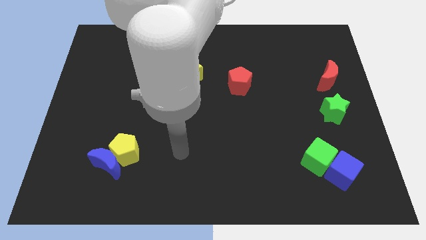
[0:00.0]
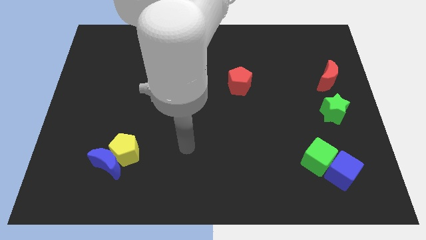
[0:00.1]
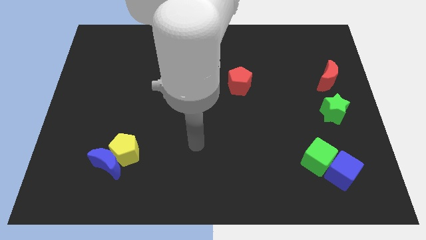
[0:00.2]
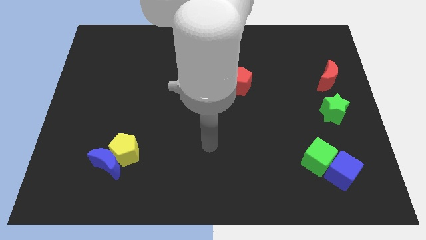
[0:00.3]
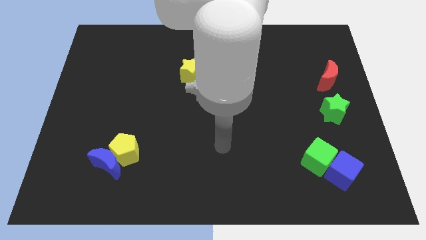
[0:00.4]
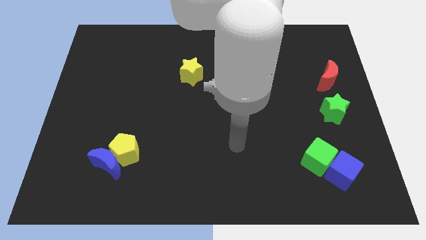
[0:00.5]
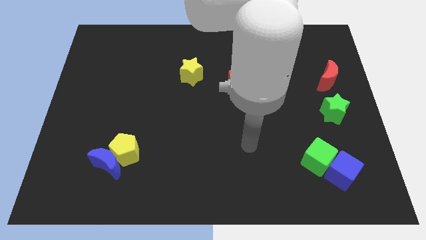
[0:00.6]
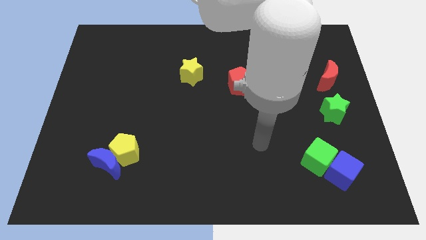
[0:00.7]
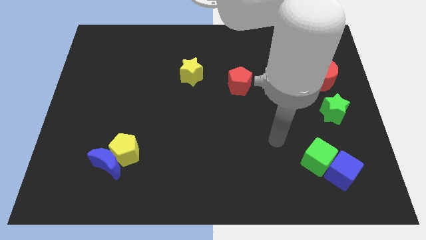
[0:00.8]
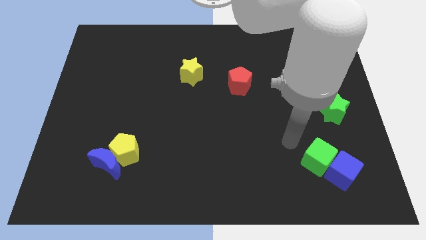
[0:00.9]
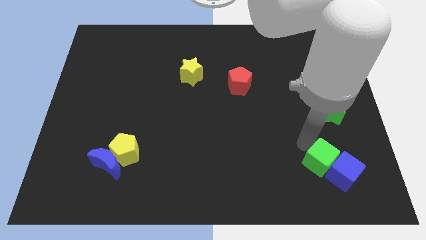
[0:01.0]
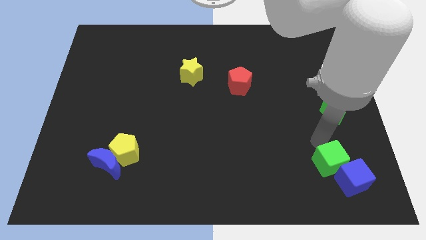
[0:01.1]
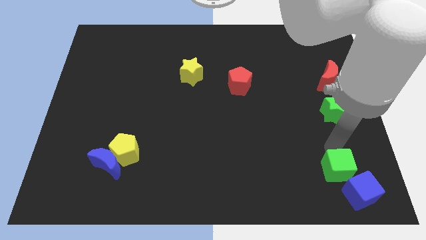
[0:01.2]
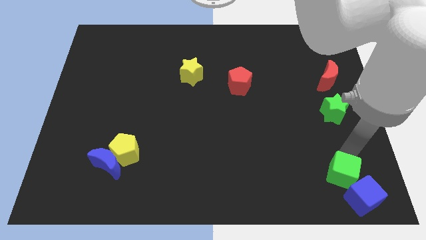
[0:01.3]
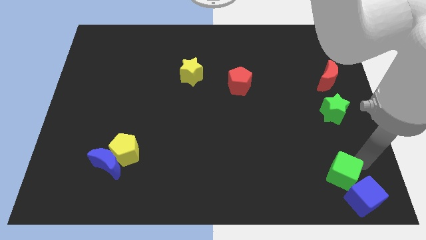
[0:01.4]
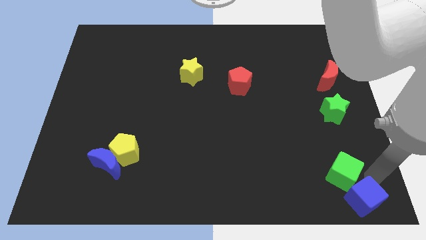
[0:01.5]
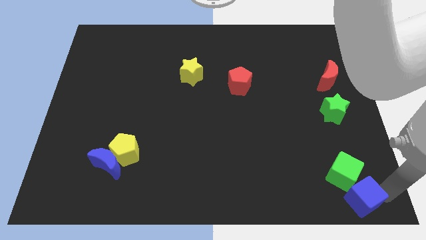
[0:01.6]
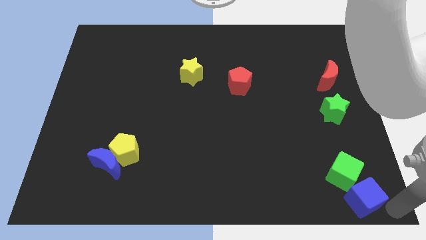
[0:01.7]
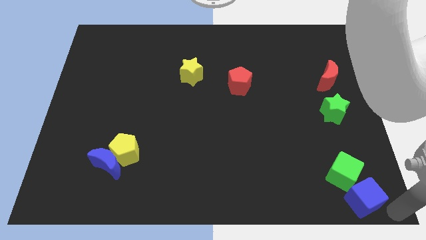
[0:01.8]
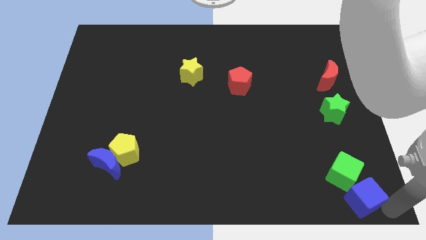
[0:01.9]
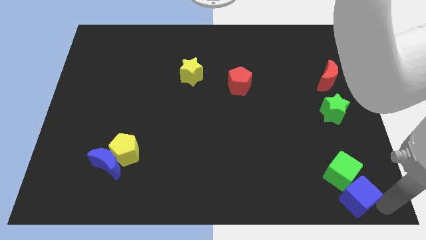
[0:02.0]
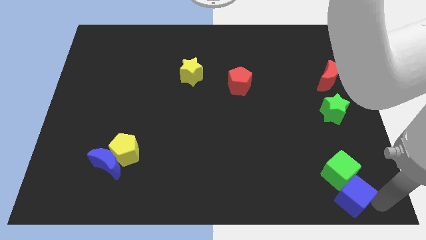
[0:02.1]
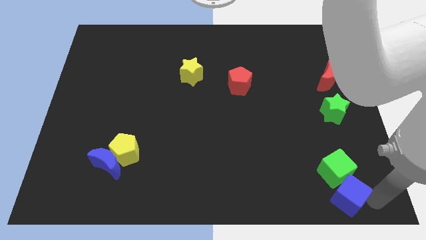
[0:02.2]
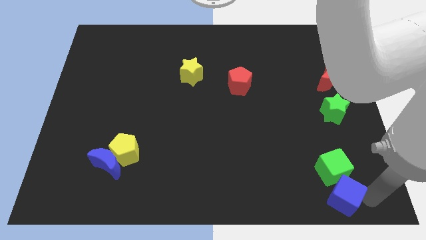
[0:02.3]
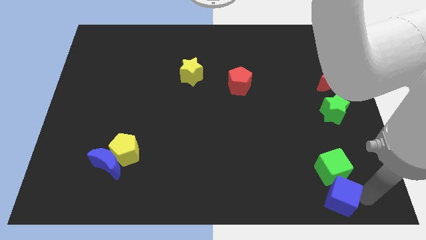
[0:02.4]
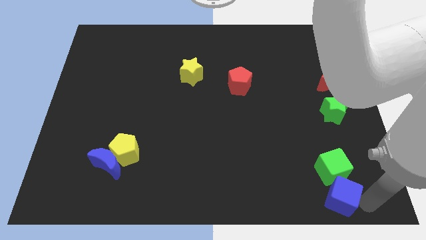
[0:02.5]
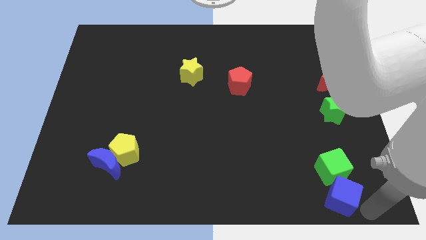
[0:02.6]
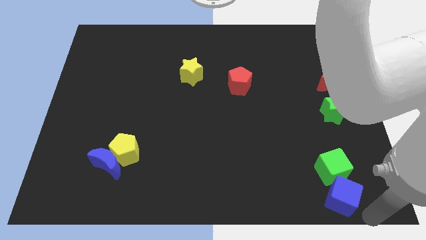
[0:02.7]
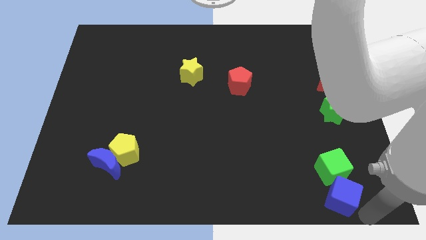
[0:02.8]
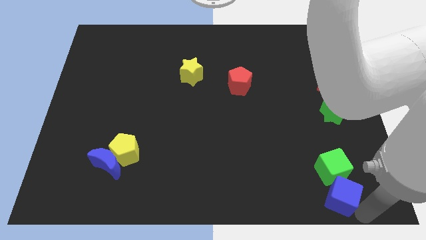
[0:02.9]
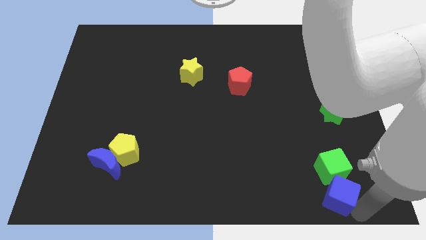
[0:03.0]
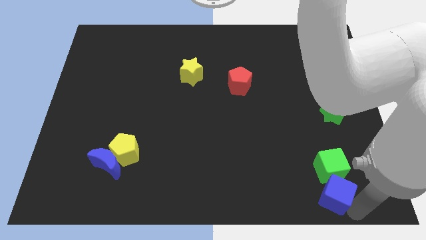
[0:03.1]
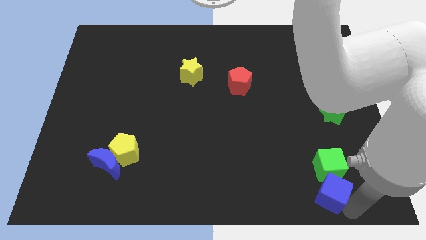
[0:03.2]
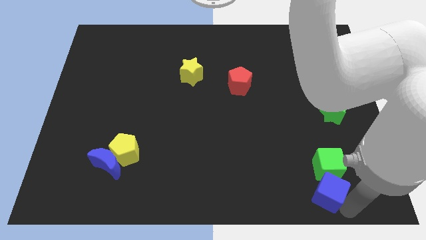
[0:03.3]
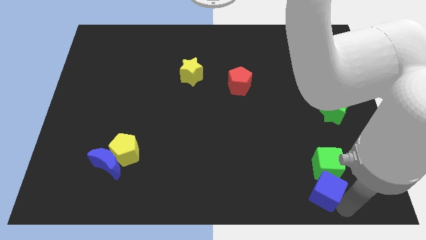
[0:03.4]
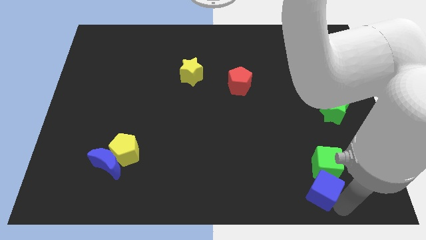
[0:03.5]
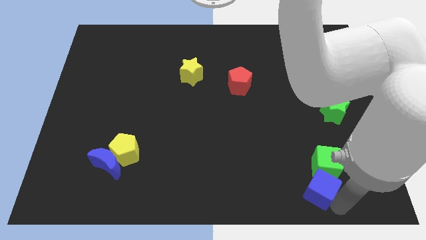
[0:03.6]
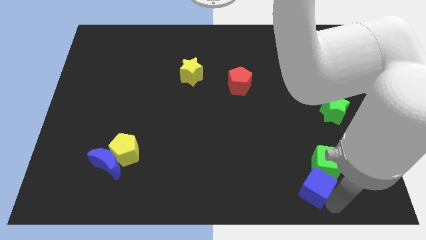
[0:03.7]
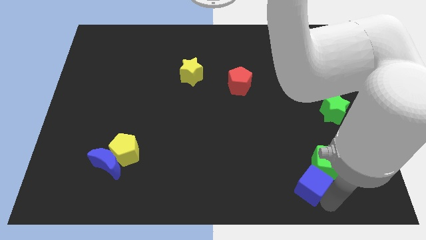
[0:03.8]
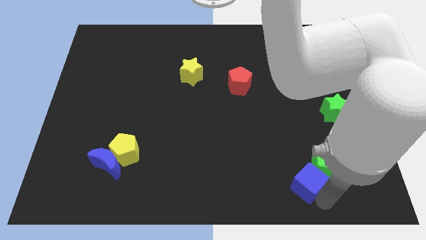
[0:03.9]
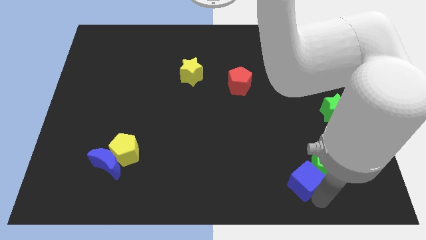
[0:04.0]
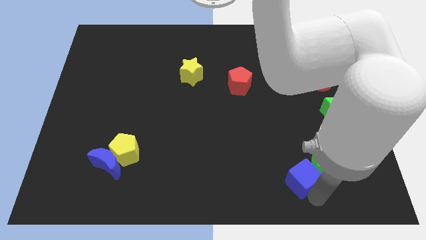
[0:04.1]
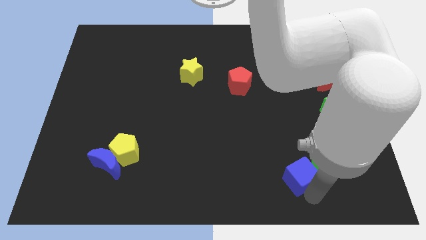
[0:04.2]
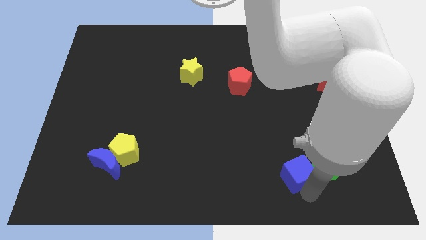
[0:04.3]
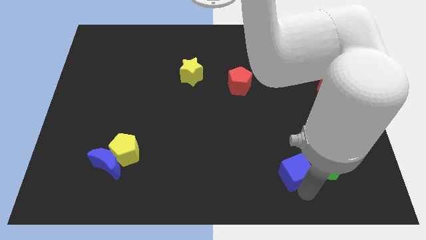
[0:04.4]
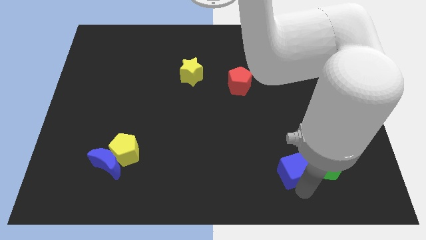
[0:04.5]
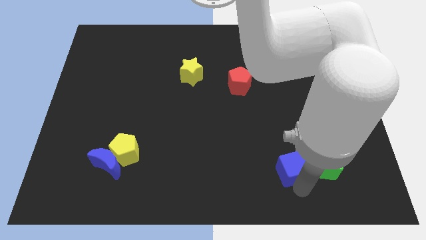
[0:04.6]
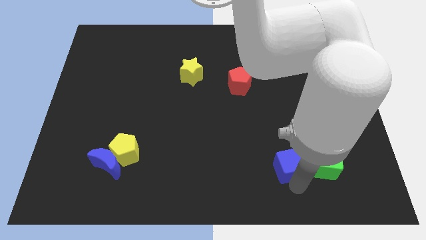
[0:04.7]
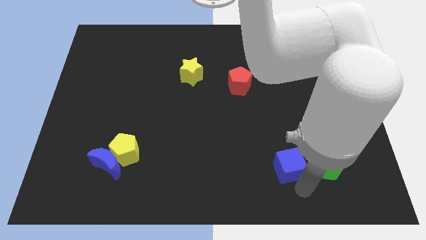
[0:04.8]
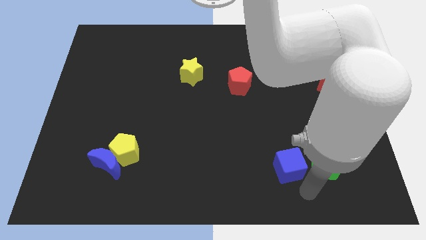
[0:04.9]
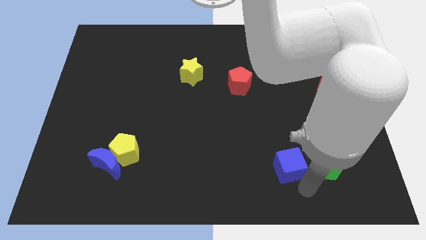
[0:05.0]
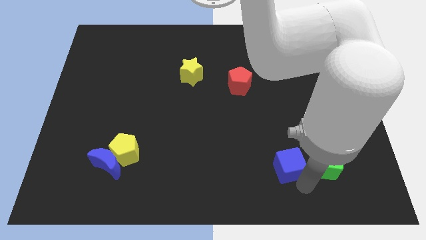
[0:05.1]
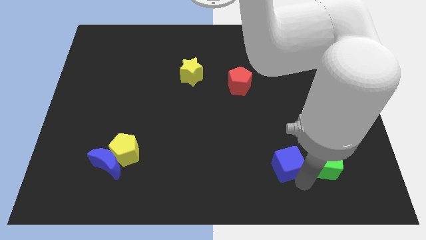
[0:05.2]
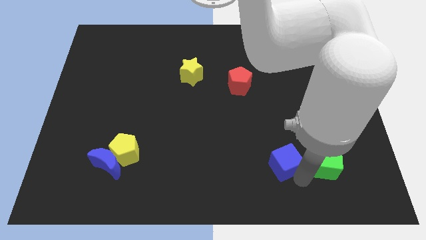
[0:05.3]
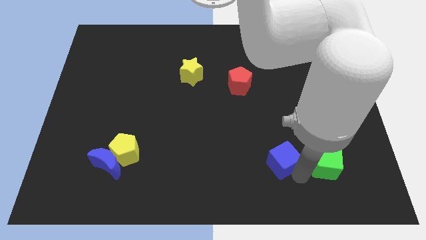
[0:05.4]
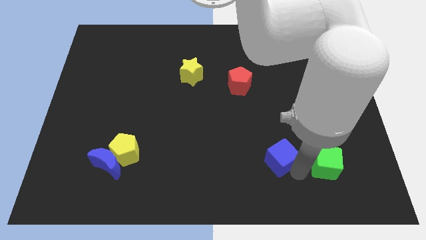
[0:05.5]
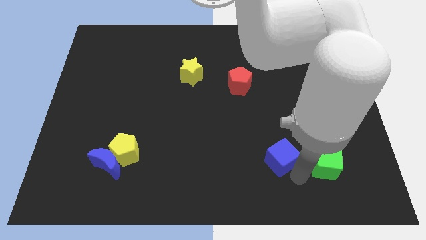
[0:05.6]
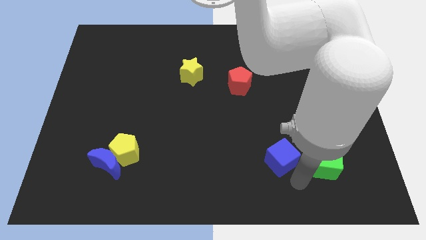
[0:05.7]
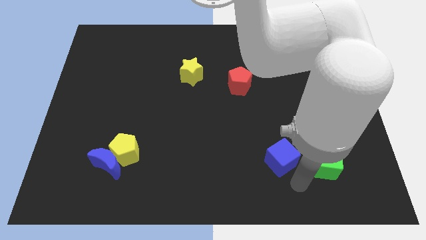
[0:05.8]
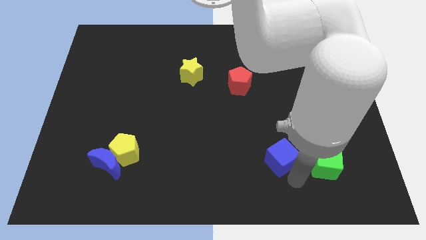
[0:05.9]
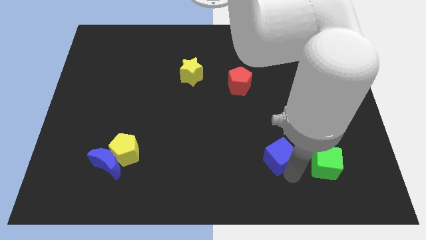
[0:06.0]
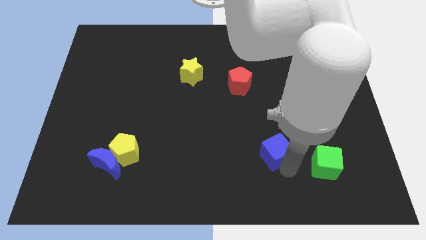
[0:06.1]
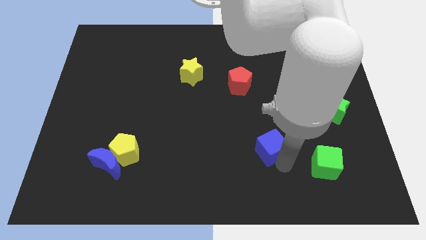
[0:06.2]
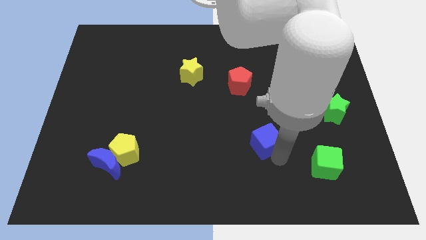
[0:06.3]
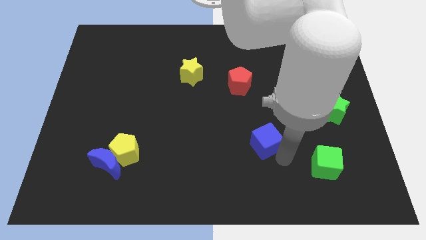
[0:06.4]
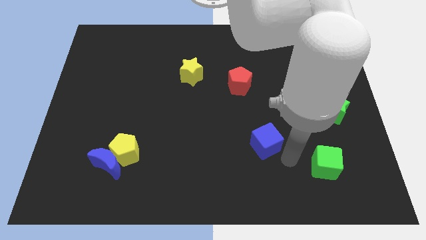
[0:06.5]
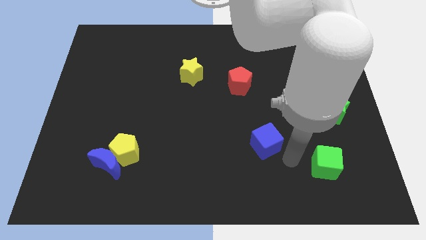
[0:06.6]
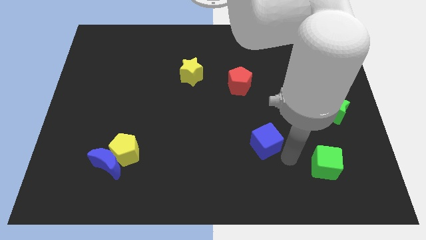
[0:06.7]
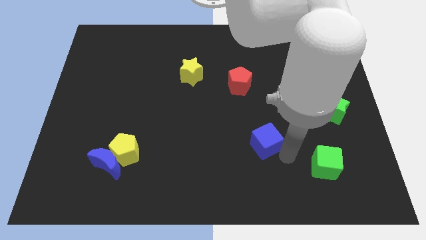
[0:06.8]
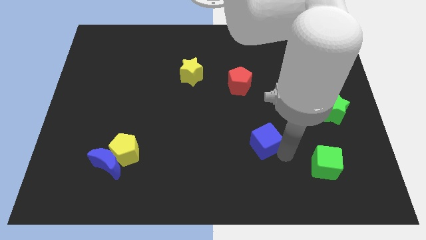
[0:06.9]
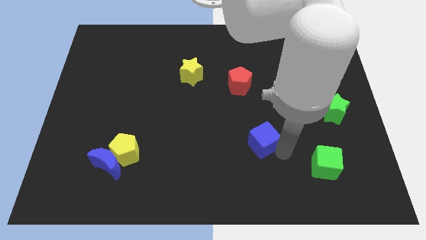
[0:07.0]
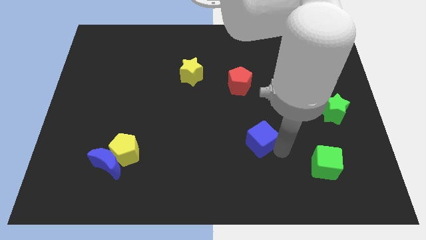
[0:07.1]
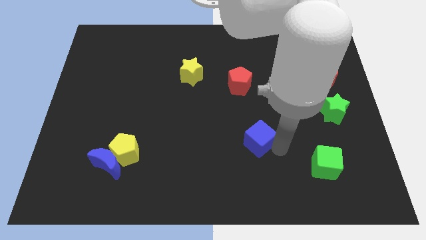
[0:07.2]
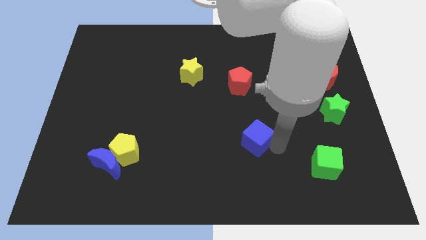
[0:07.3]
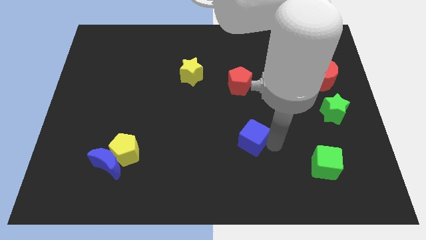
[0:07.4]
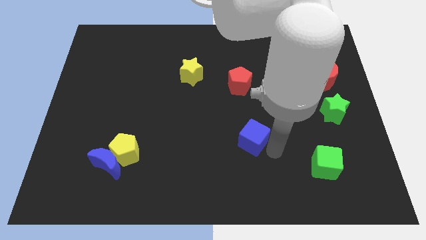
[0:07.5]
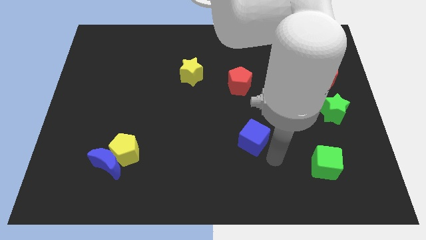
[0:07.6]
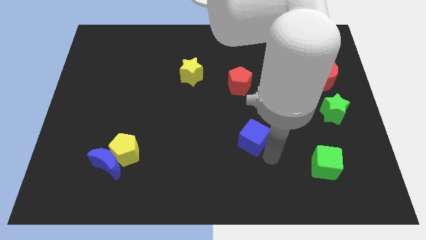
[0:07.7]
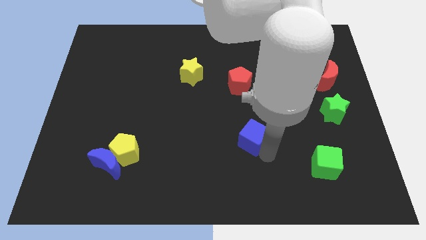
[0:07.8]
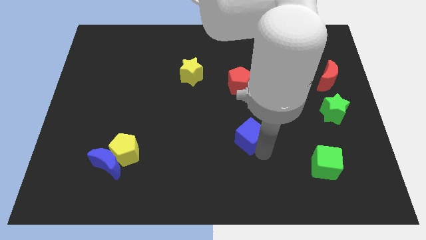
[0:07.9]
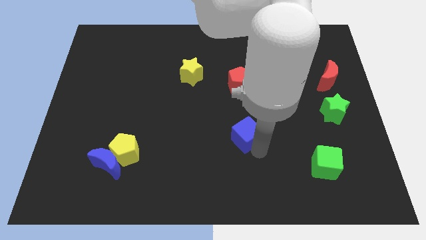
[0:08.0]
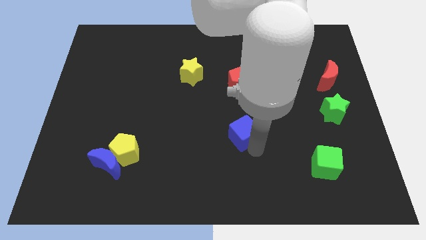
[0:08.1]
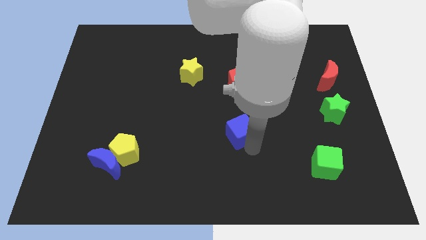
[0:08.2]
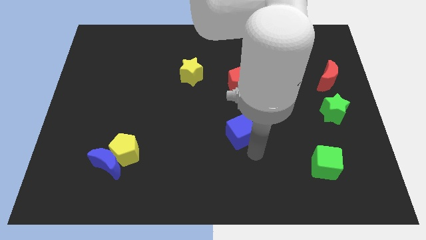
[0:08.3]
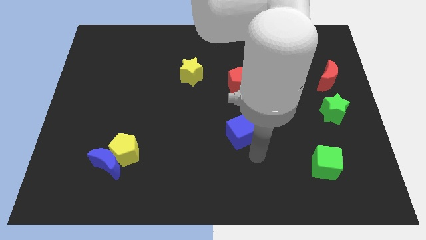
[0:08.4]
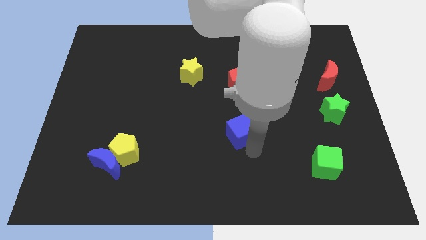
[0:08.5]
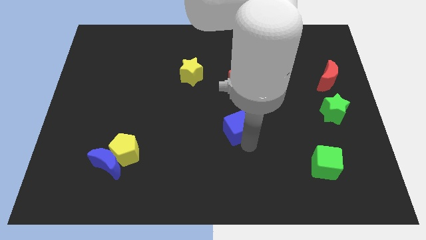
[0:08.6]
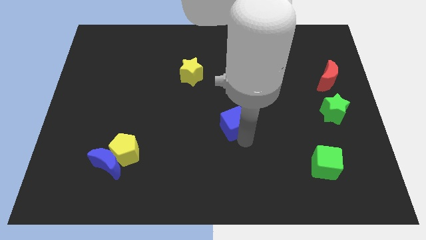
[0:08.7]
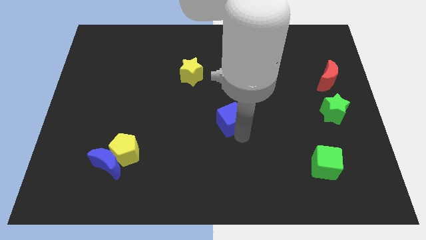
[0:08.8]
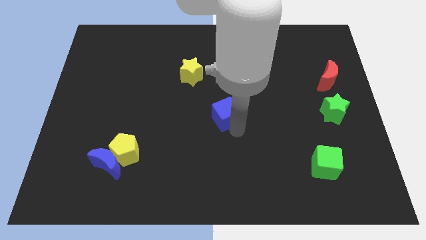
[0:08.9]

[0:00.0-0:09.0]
push the blue cube diagonally down and to the left of the red pentagon
